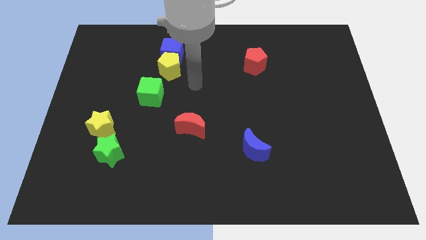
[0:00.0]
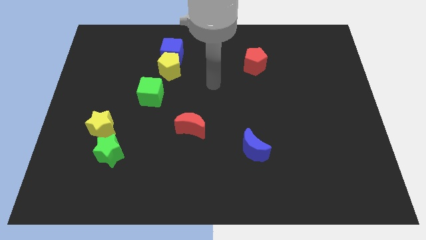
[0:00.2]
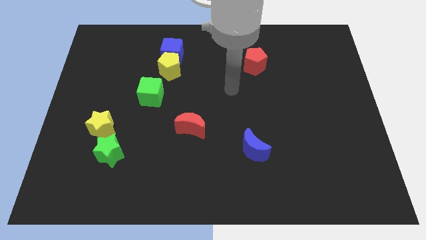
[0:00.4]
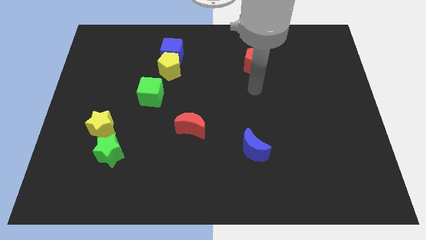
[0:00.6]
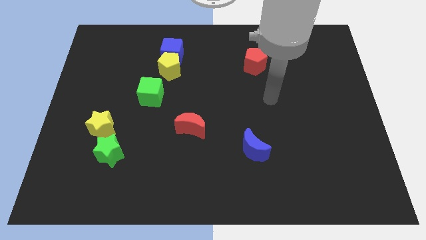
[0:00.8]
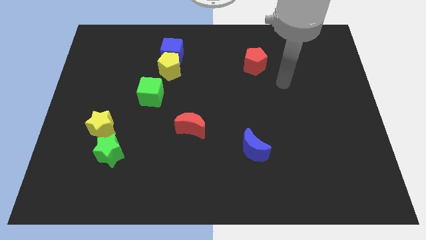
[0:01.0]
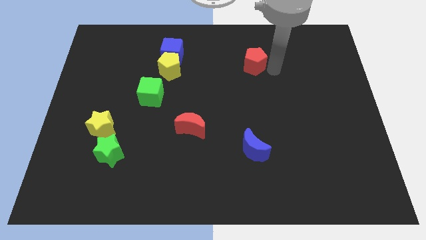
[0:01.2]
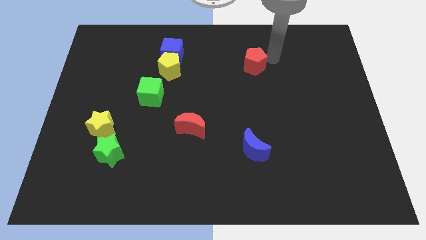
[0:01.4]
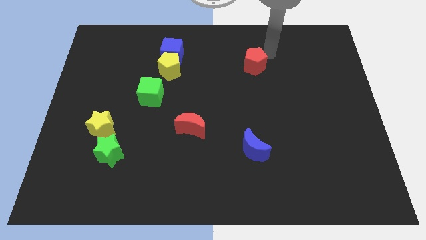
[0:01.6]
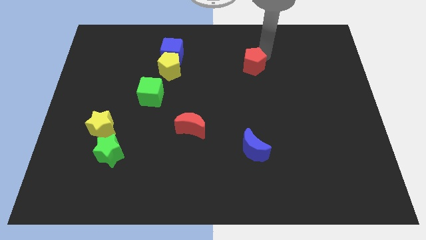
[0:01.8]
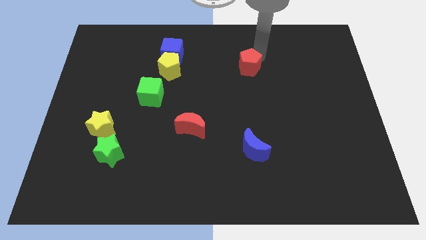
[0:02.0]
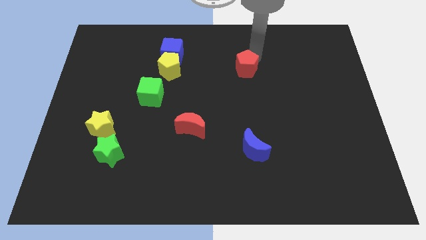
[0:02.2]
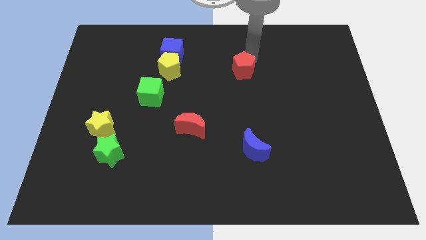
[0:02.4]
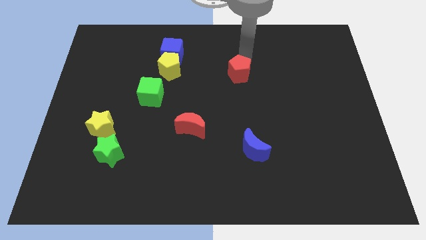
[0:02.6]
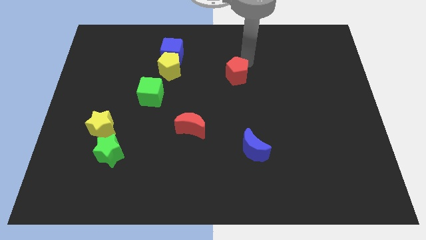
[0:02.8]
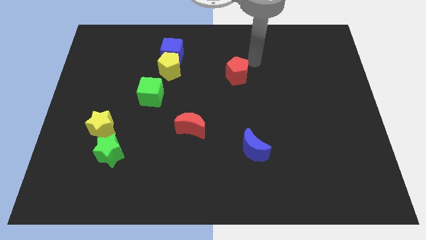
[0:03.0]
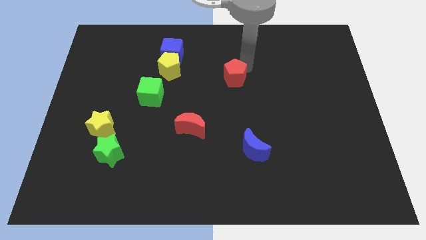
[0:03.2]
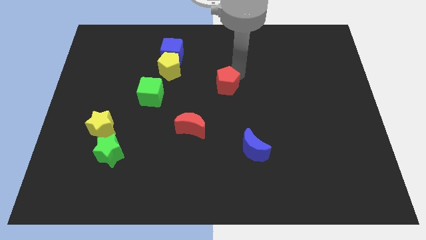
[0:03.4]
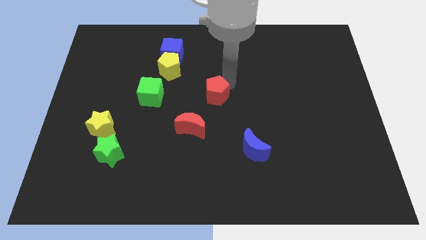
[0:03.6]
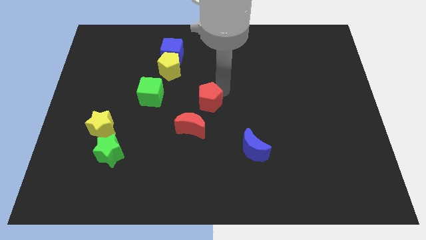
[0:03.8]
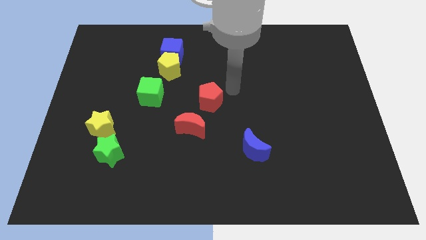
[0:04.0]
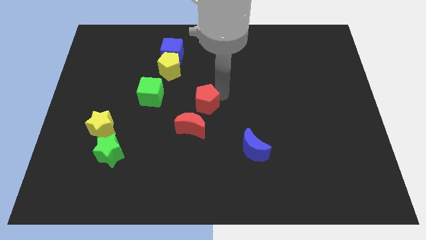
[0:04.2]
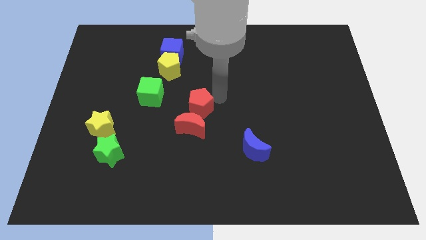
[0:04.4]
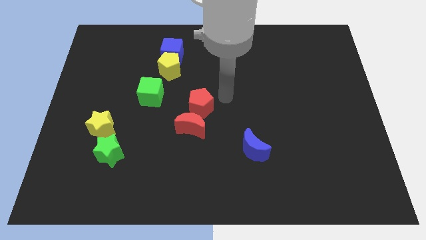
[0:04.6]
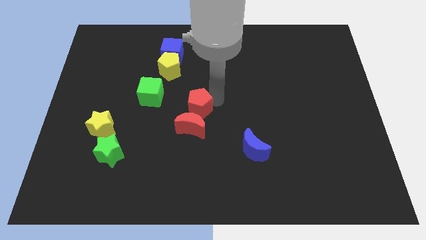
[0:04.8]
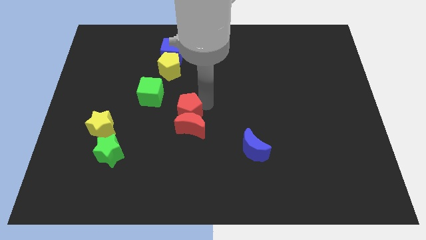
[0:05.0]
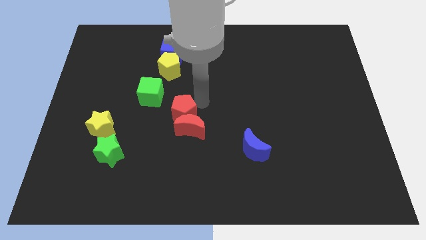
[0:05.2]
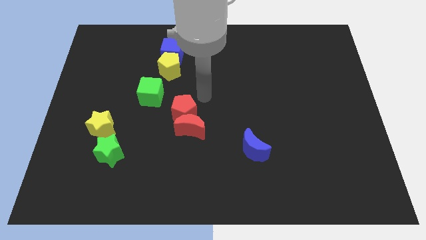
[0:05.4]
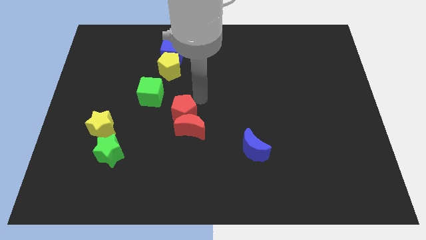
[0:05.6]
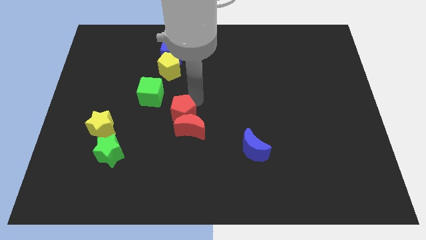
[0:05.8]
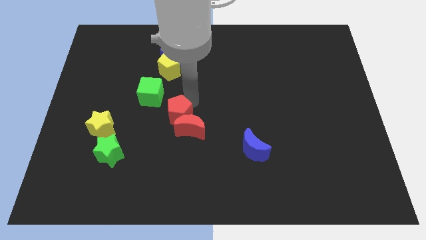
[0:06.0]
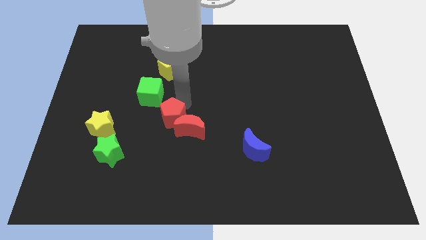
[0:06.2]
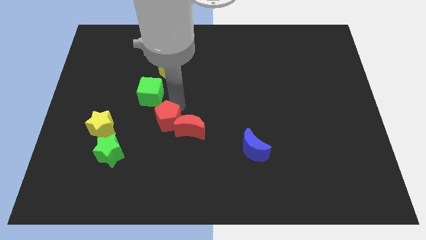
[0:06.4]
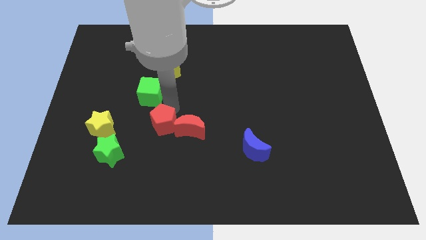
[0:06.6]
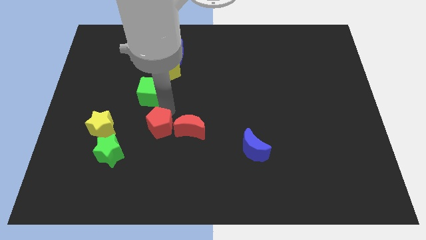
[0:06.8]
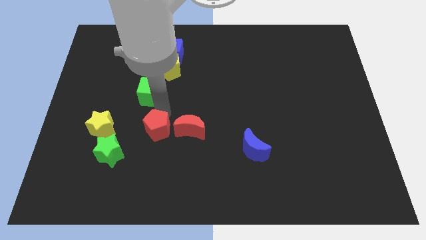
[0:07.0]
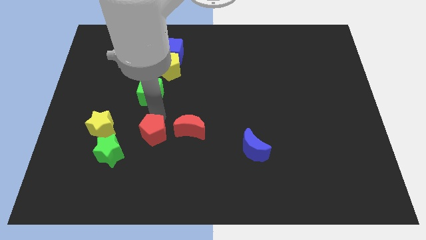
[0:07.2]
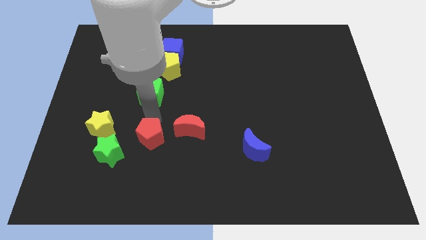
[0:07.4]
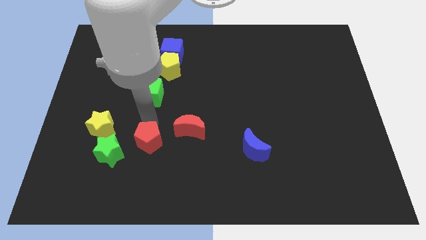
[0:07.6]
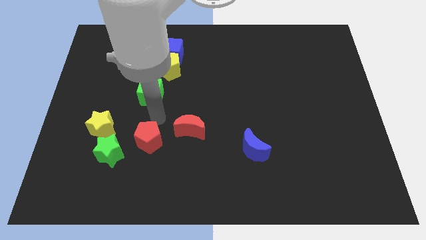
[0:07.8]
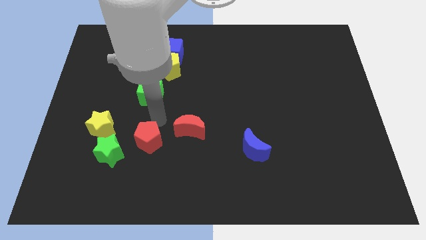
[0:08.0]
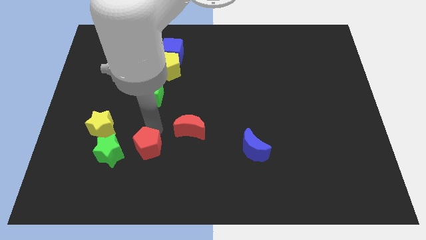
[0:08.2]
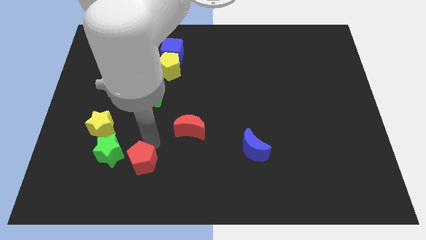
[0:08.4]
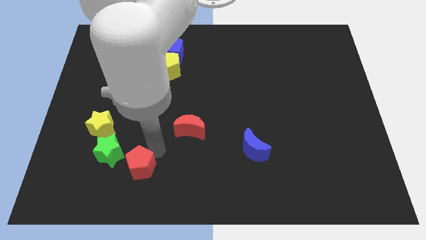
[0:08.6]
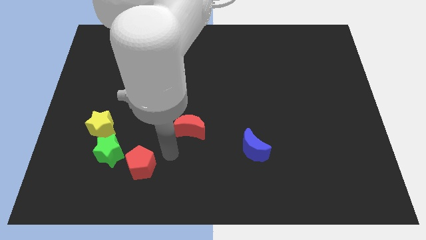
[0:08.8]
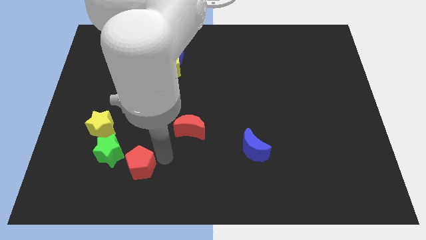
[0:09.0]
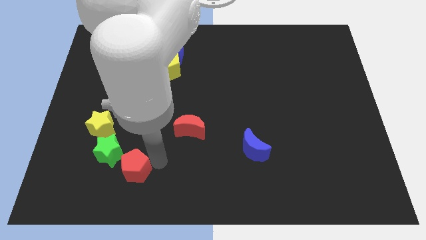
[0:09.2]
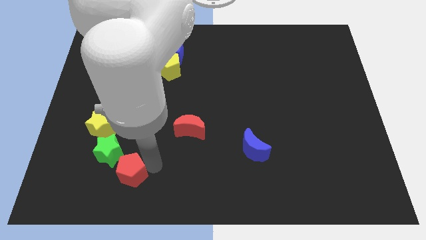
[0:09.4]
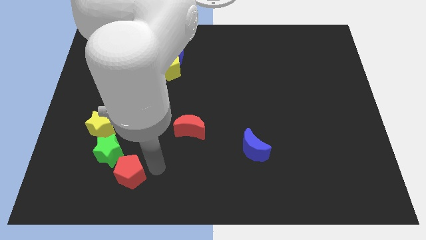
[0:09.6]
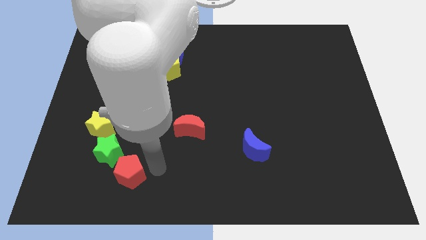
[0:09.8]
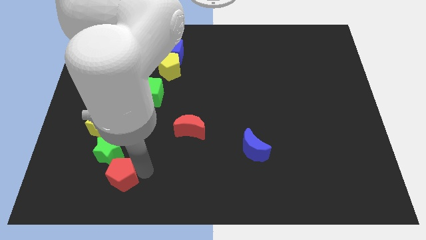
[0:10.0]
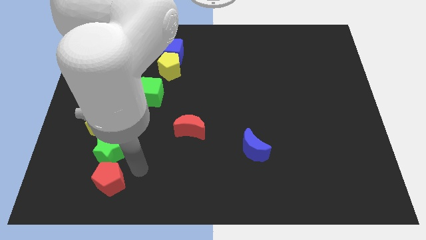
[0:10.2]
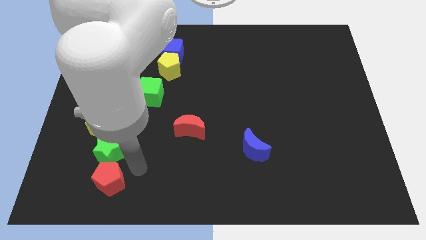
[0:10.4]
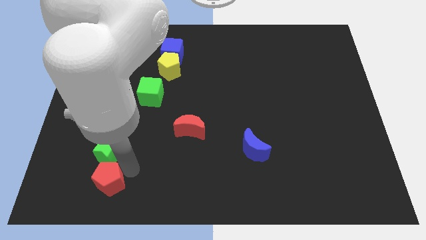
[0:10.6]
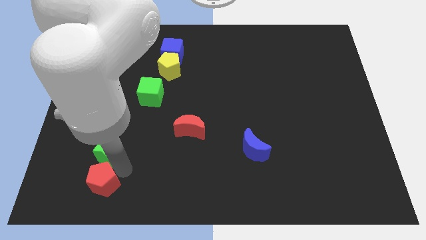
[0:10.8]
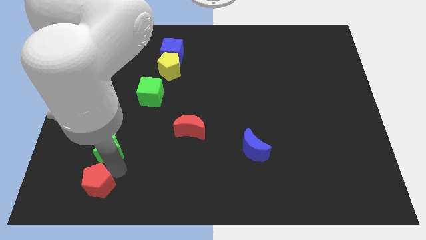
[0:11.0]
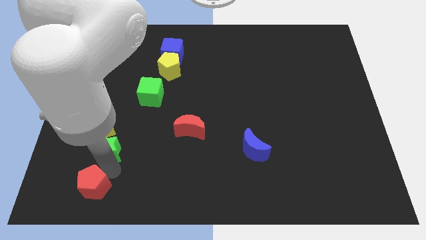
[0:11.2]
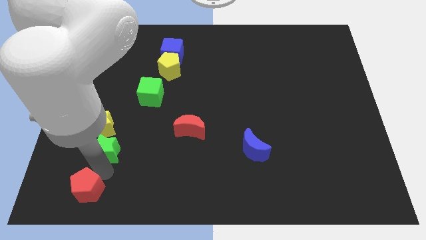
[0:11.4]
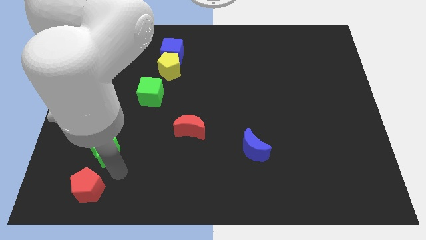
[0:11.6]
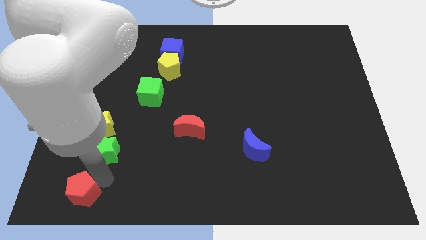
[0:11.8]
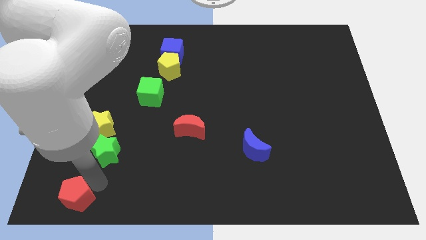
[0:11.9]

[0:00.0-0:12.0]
push the red pentagon to the bottom left

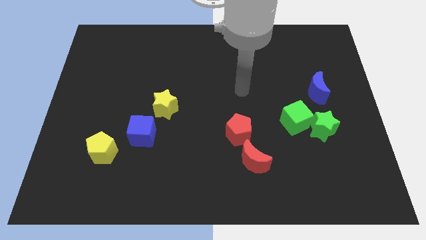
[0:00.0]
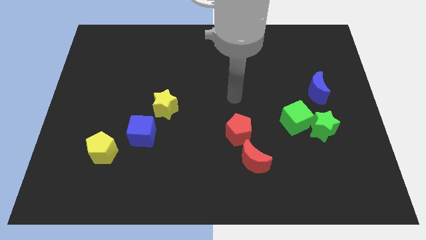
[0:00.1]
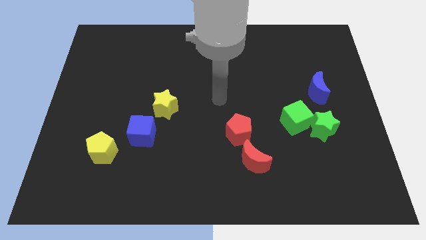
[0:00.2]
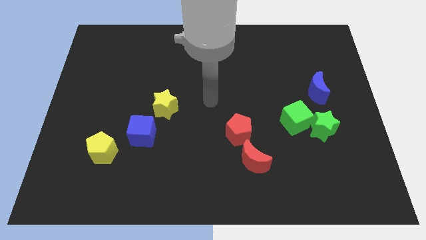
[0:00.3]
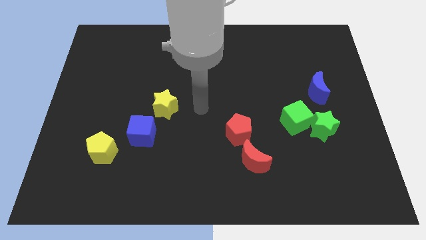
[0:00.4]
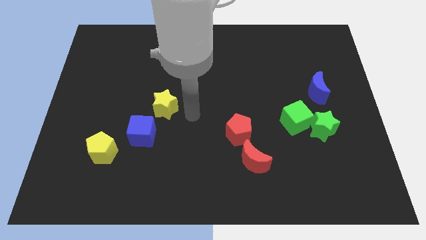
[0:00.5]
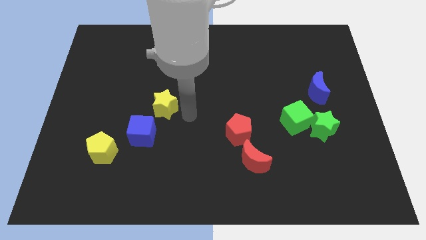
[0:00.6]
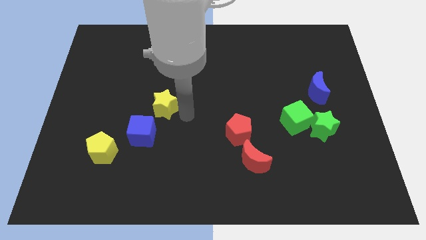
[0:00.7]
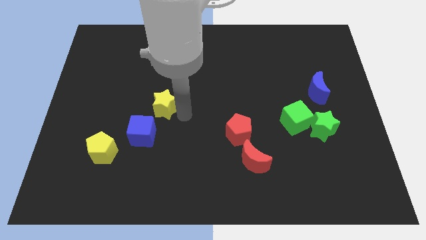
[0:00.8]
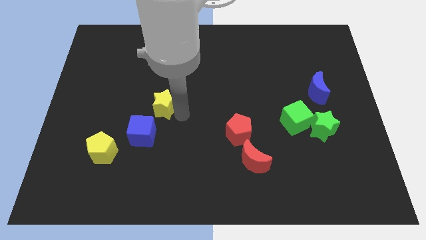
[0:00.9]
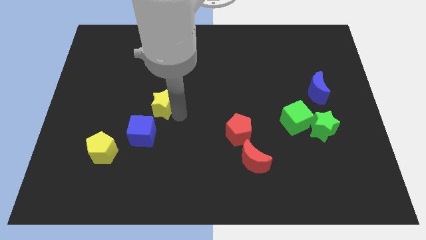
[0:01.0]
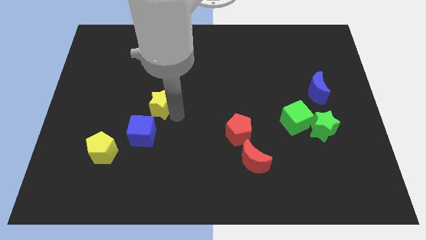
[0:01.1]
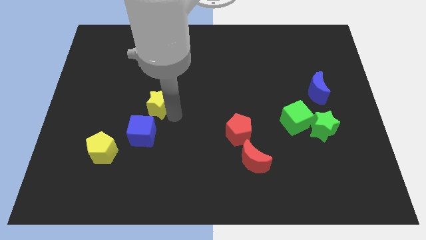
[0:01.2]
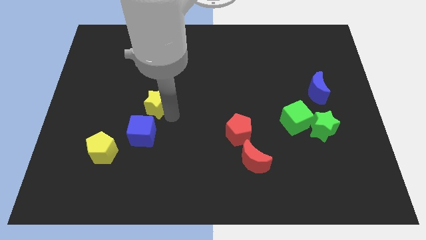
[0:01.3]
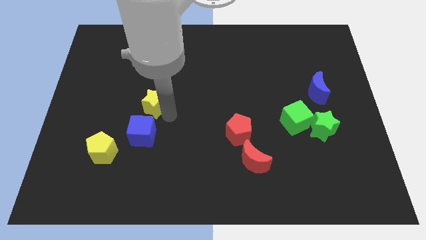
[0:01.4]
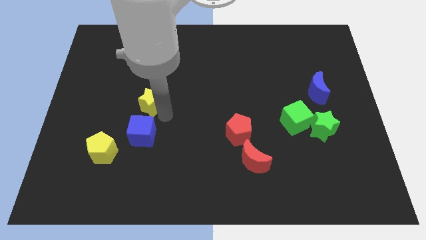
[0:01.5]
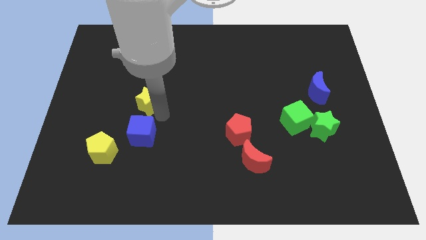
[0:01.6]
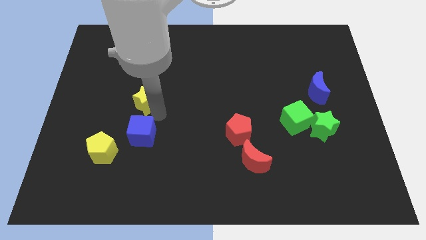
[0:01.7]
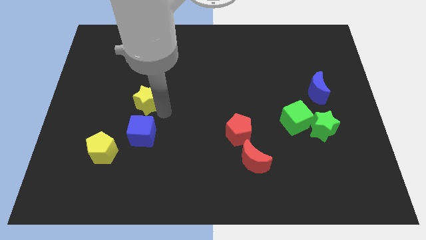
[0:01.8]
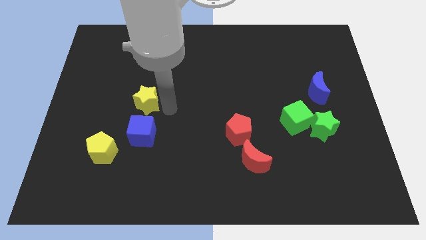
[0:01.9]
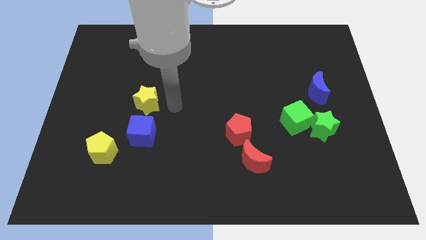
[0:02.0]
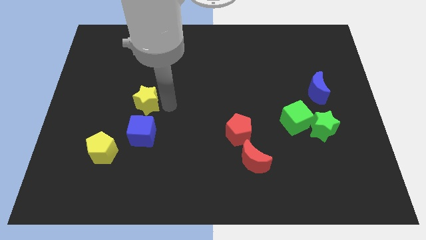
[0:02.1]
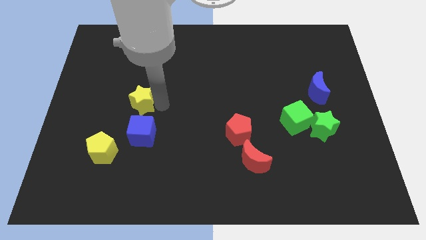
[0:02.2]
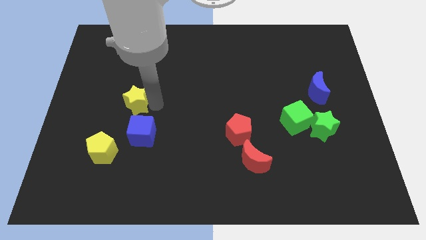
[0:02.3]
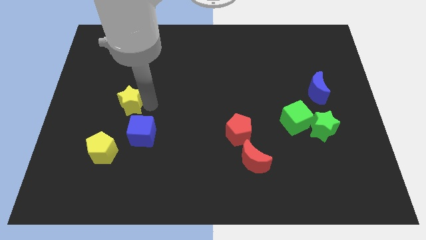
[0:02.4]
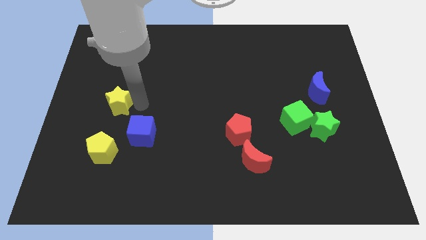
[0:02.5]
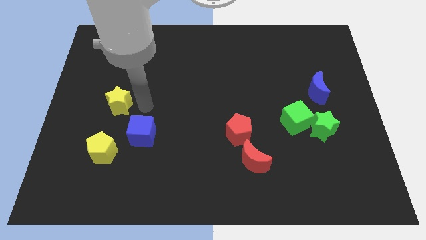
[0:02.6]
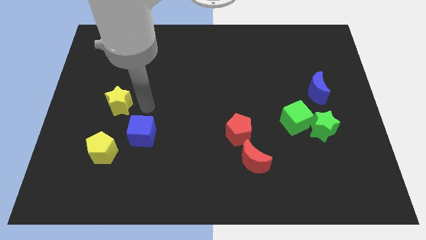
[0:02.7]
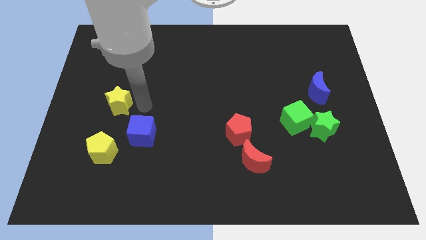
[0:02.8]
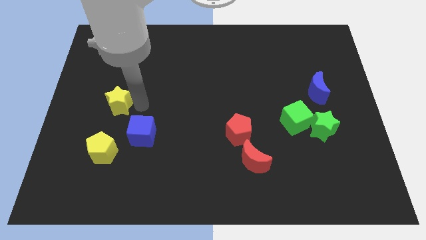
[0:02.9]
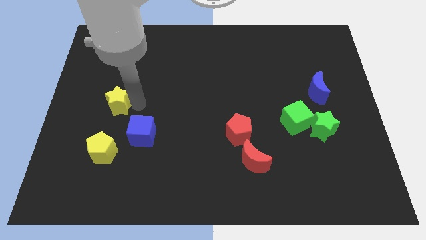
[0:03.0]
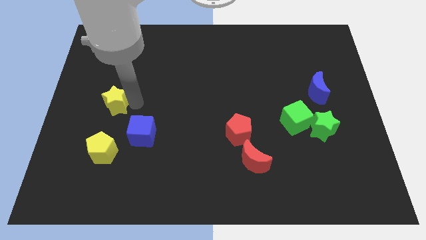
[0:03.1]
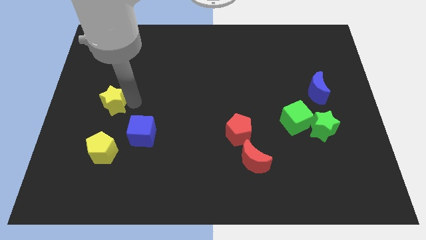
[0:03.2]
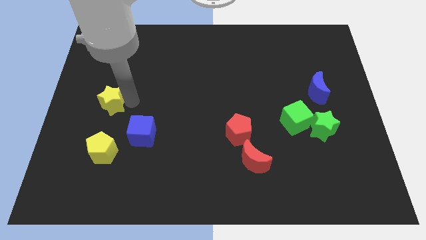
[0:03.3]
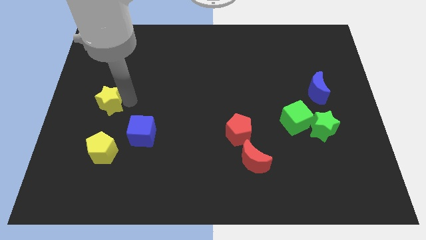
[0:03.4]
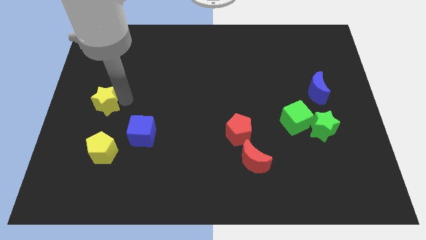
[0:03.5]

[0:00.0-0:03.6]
slide the yellow star to the left side
